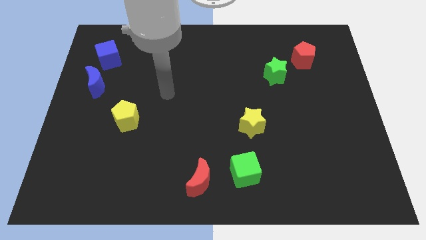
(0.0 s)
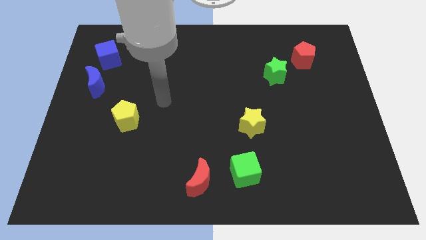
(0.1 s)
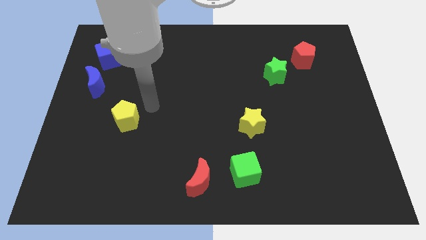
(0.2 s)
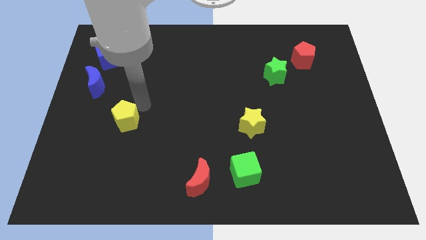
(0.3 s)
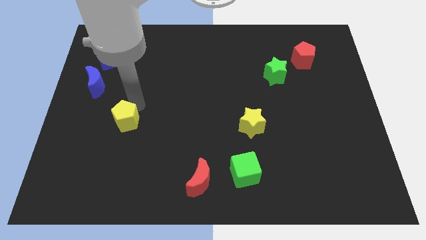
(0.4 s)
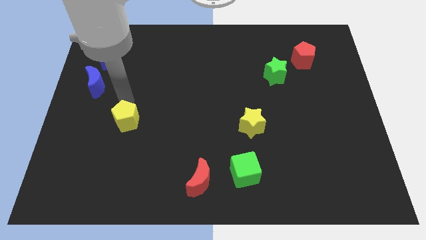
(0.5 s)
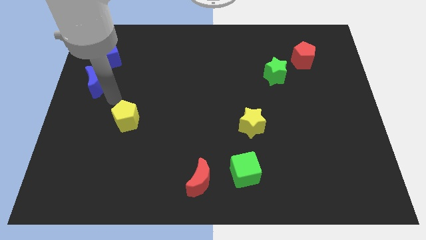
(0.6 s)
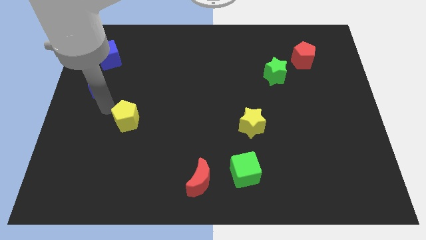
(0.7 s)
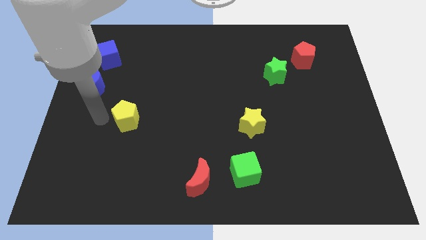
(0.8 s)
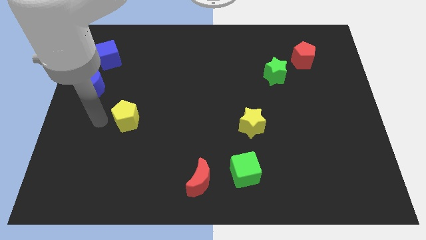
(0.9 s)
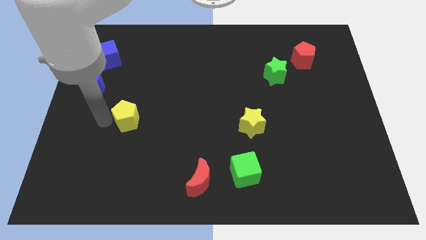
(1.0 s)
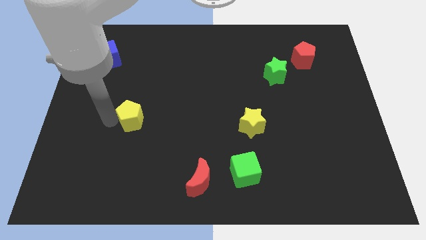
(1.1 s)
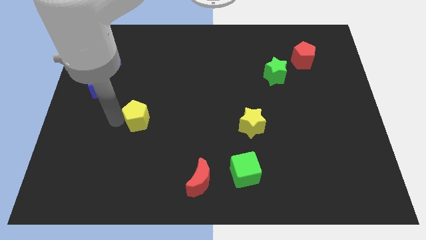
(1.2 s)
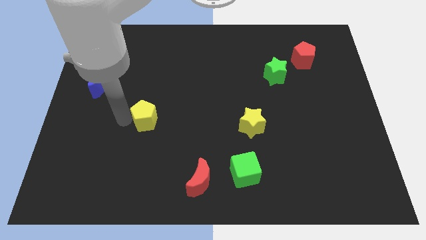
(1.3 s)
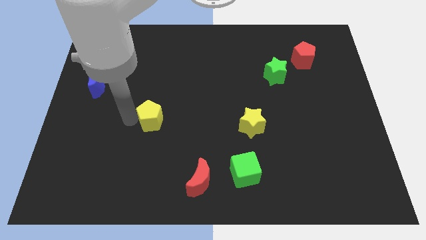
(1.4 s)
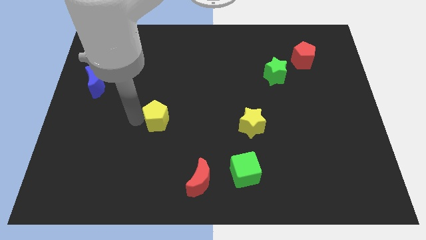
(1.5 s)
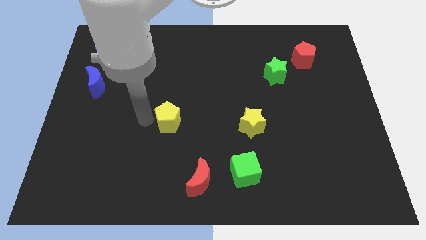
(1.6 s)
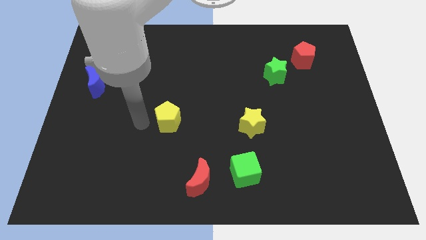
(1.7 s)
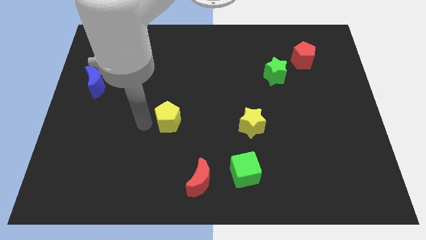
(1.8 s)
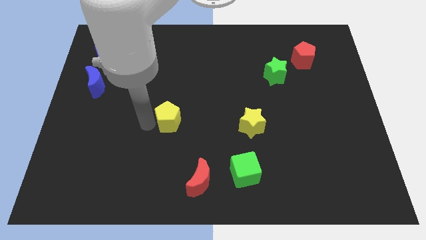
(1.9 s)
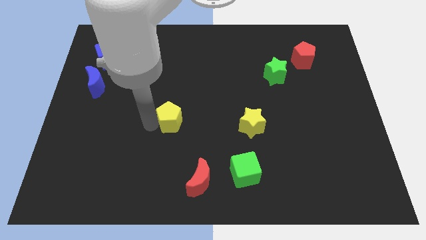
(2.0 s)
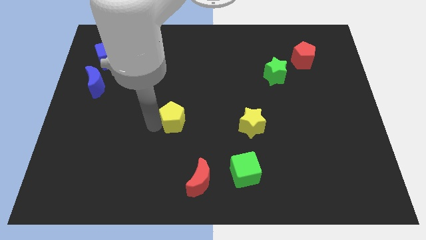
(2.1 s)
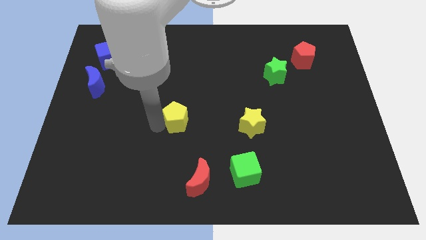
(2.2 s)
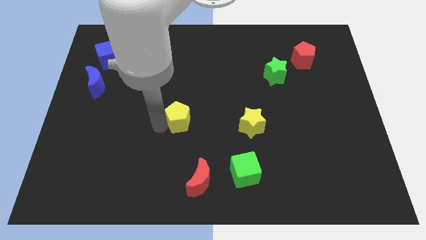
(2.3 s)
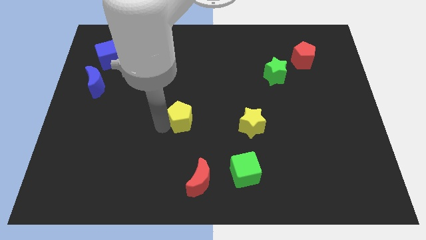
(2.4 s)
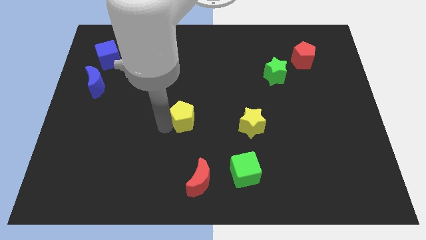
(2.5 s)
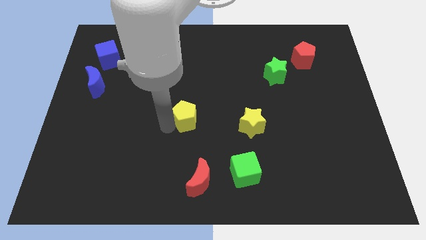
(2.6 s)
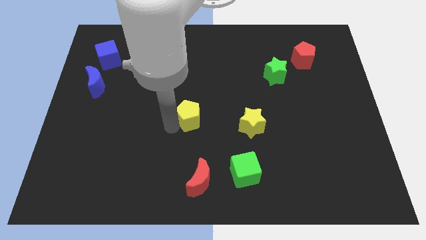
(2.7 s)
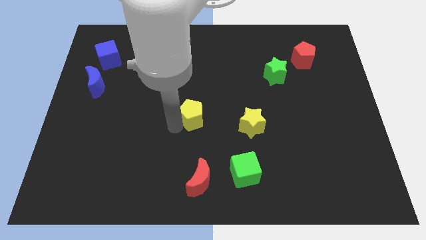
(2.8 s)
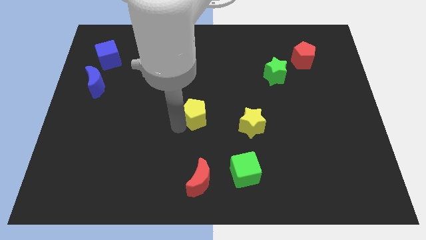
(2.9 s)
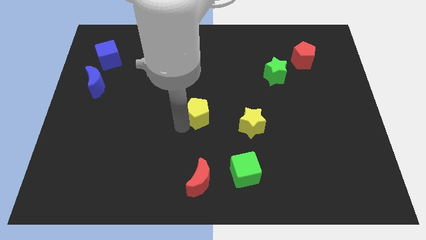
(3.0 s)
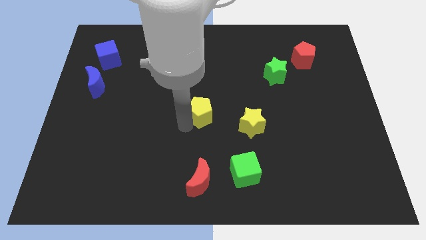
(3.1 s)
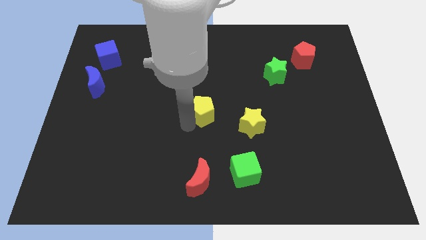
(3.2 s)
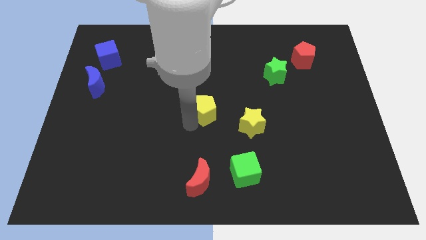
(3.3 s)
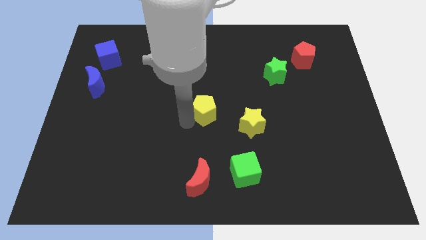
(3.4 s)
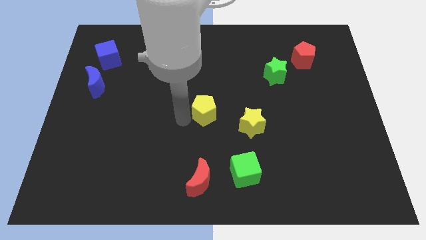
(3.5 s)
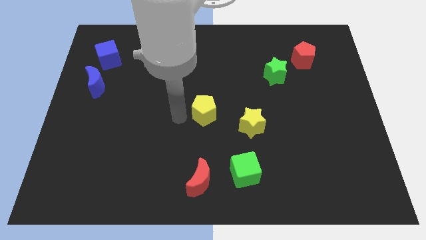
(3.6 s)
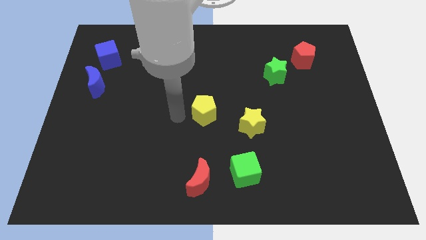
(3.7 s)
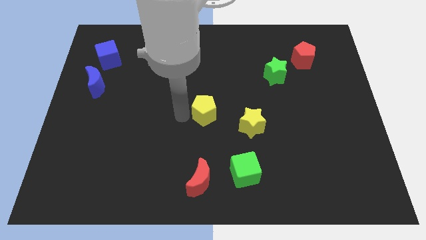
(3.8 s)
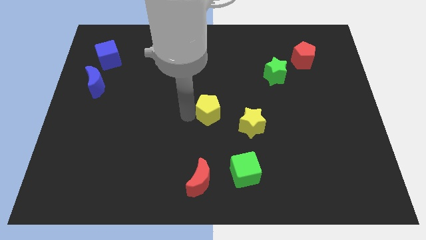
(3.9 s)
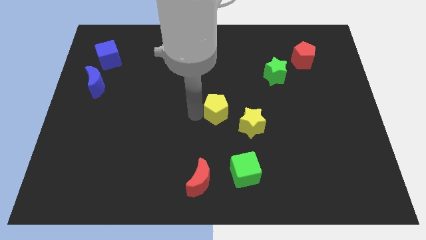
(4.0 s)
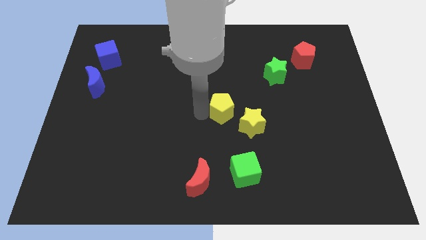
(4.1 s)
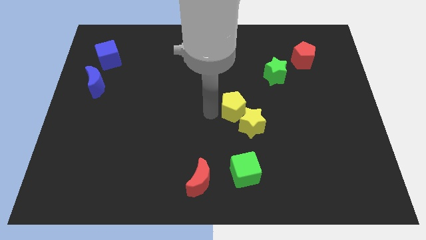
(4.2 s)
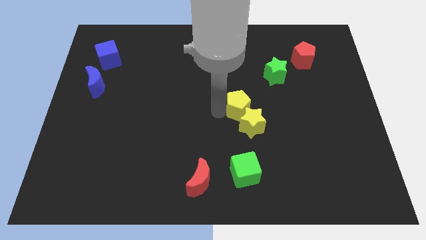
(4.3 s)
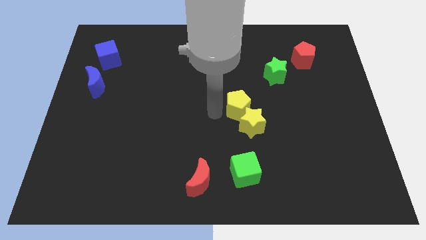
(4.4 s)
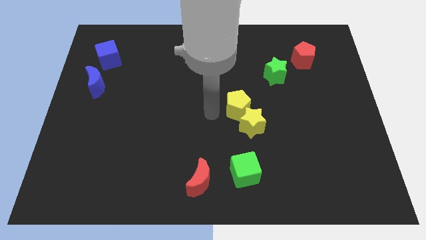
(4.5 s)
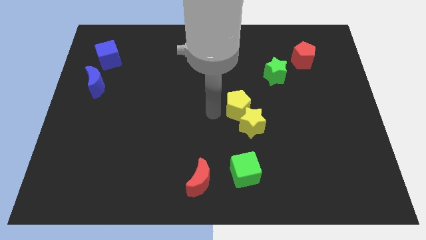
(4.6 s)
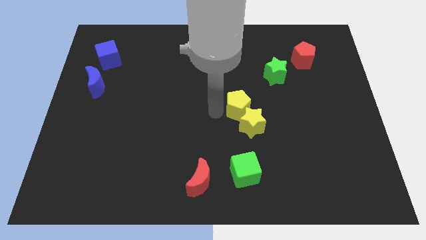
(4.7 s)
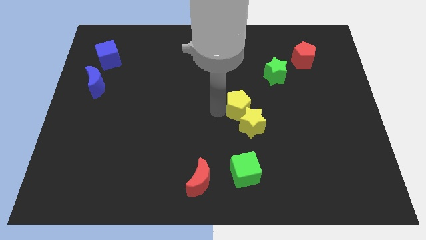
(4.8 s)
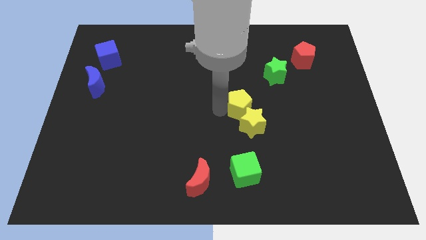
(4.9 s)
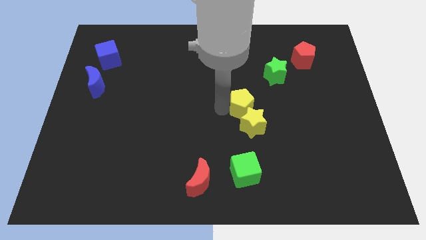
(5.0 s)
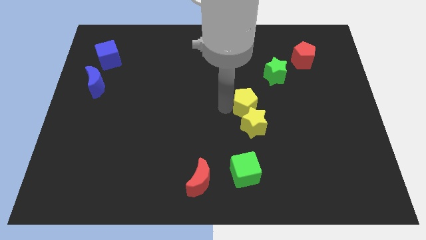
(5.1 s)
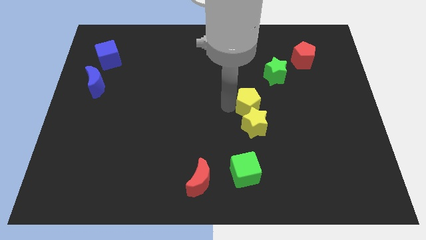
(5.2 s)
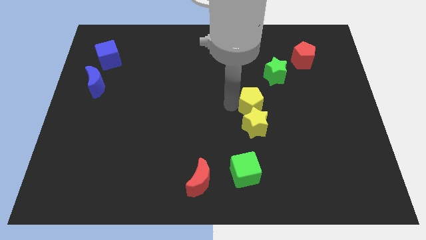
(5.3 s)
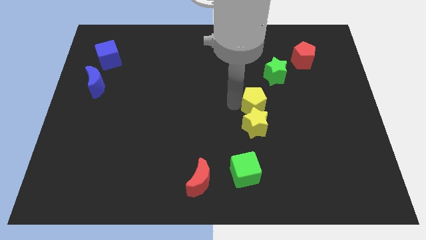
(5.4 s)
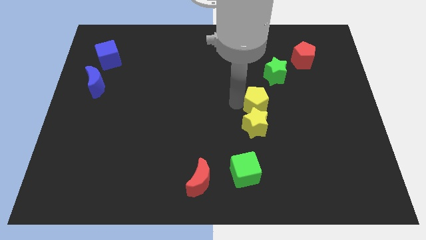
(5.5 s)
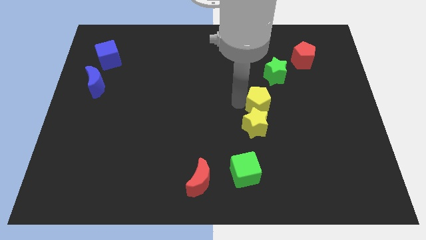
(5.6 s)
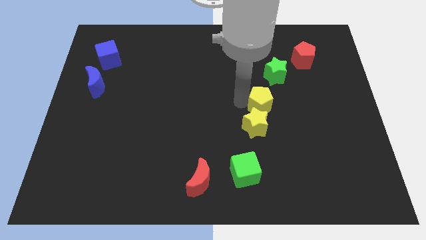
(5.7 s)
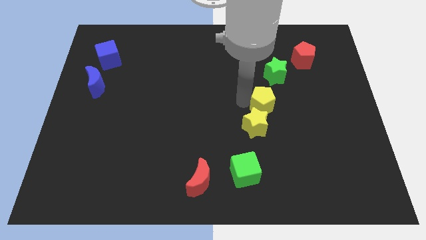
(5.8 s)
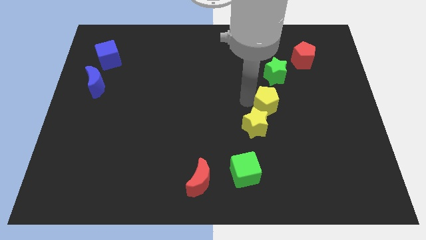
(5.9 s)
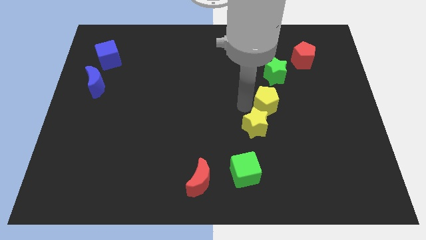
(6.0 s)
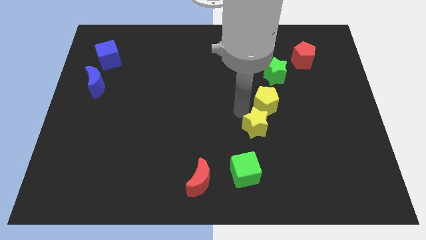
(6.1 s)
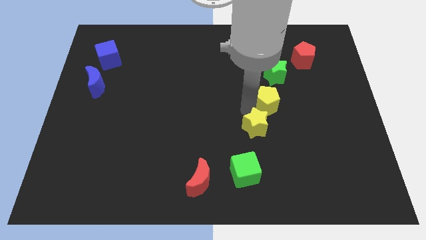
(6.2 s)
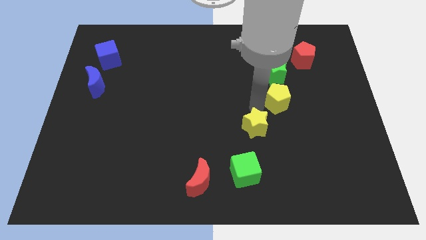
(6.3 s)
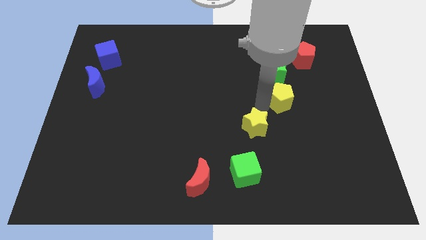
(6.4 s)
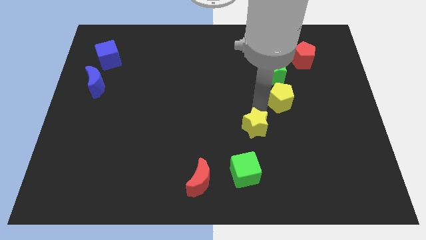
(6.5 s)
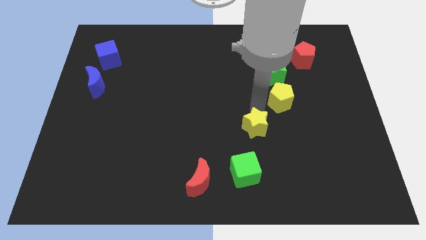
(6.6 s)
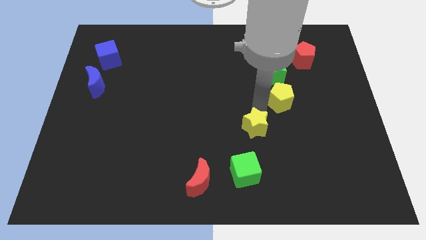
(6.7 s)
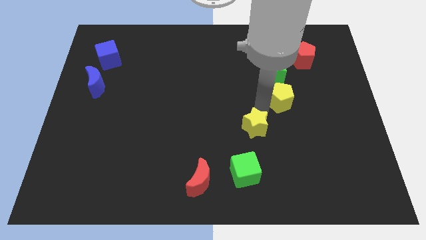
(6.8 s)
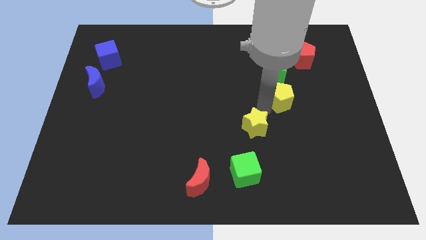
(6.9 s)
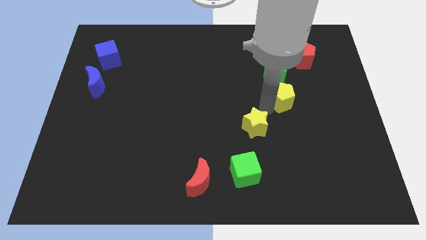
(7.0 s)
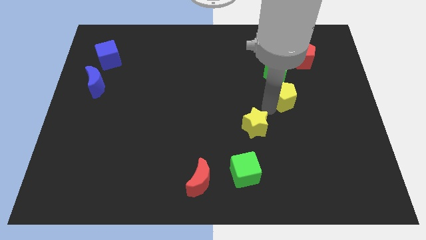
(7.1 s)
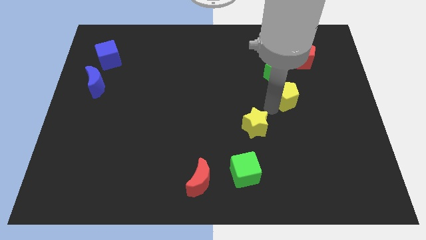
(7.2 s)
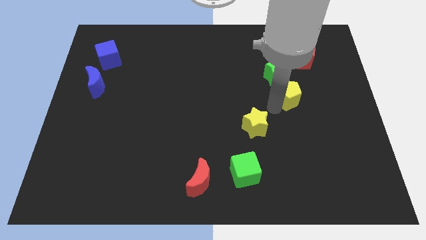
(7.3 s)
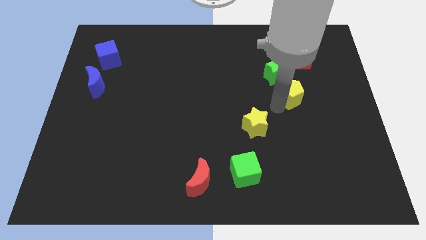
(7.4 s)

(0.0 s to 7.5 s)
slide the yellow pentagon to the bottom side of the red pentagon

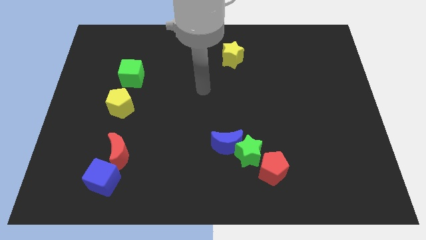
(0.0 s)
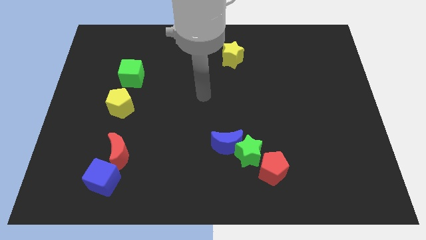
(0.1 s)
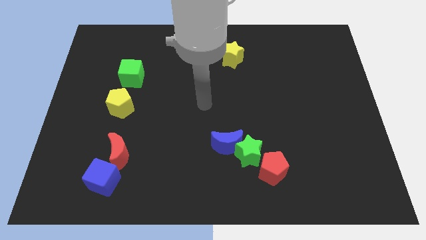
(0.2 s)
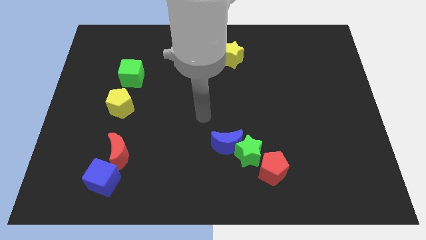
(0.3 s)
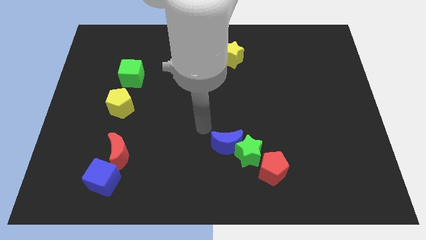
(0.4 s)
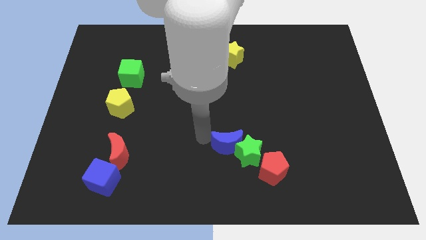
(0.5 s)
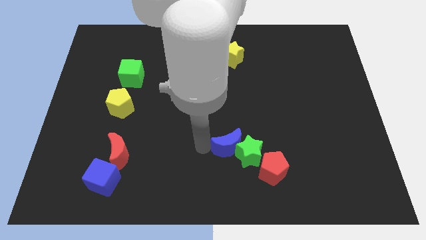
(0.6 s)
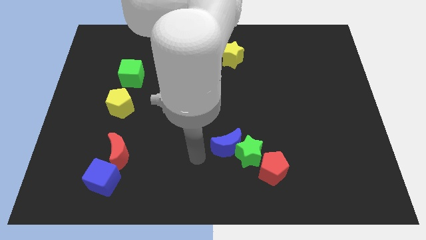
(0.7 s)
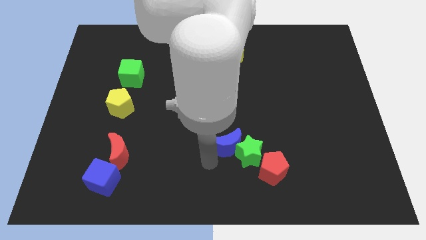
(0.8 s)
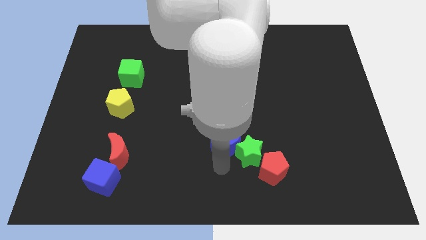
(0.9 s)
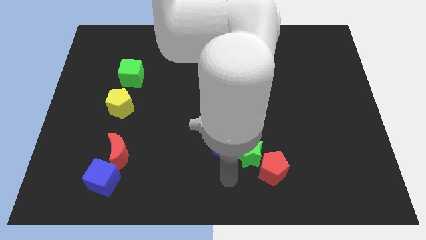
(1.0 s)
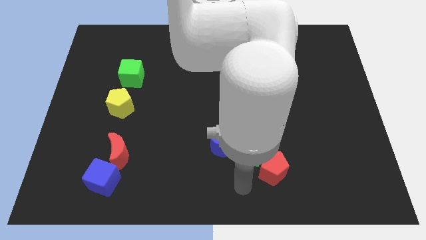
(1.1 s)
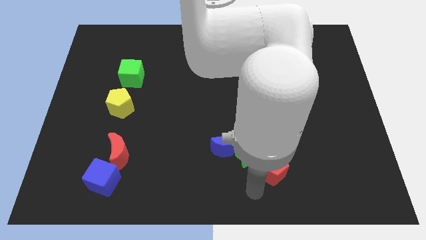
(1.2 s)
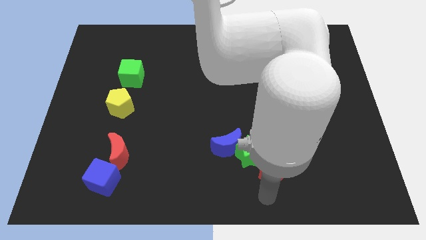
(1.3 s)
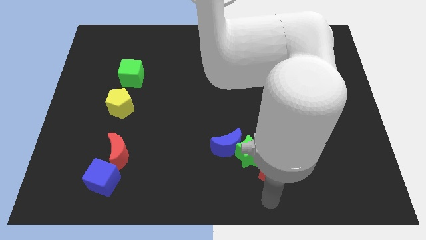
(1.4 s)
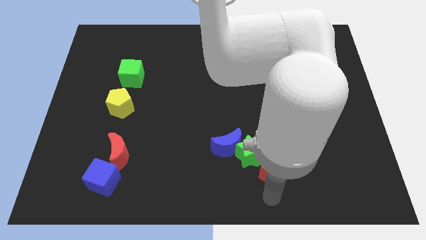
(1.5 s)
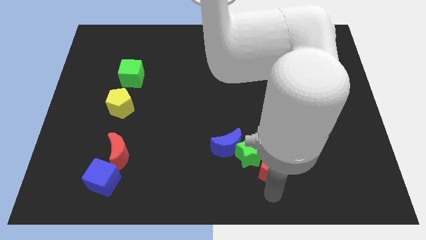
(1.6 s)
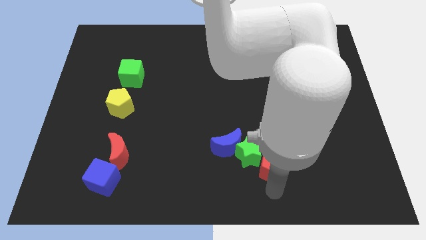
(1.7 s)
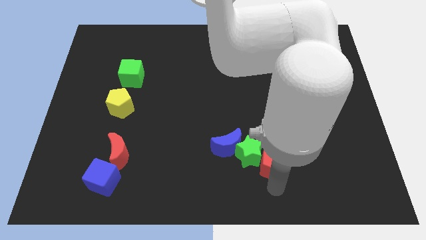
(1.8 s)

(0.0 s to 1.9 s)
put the red pentagon just right of the blue moon
